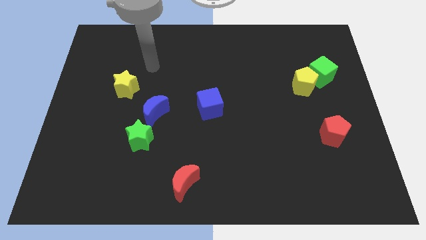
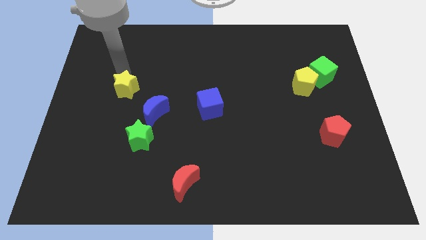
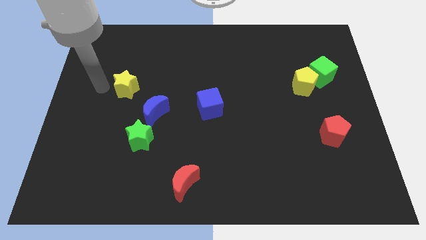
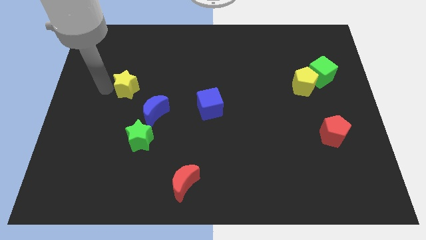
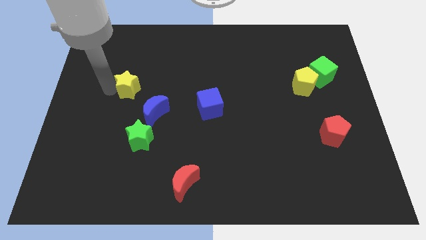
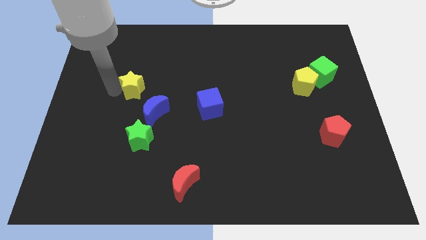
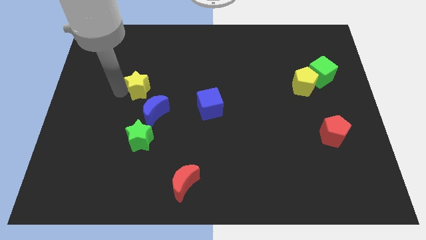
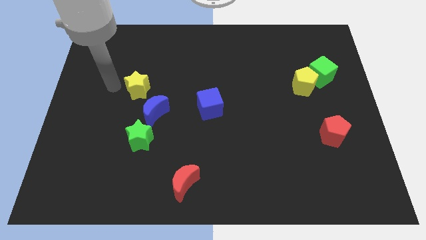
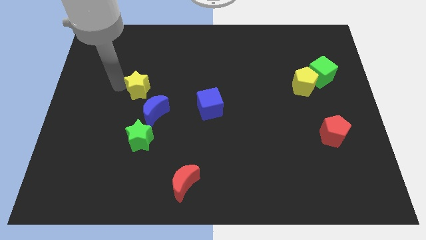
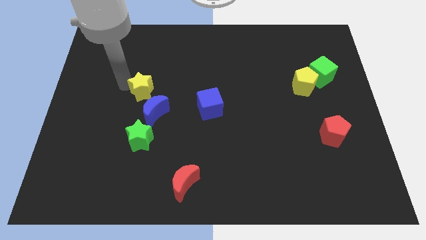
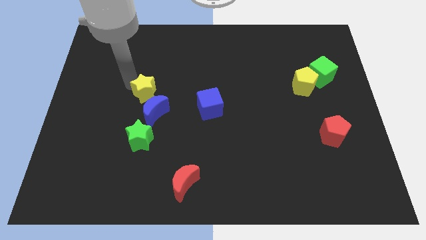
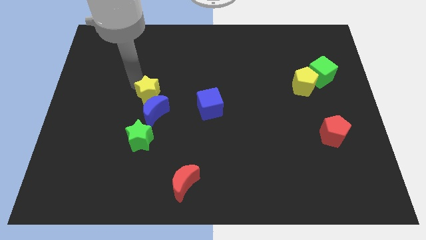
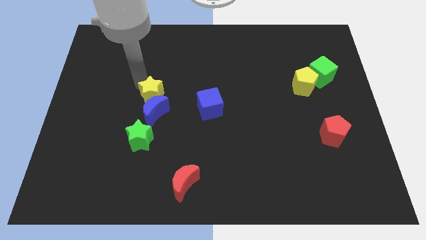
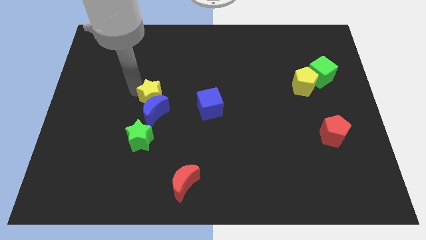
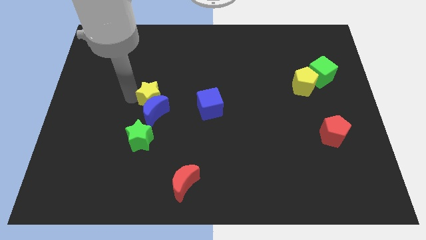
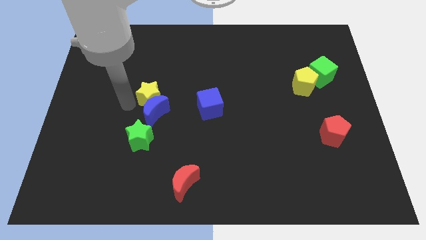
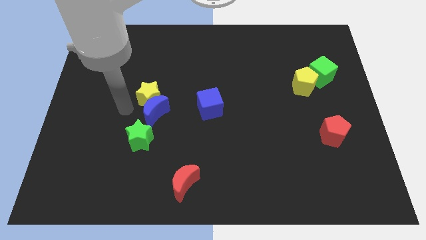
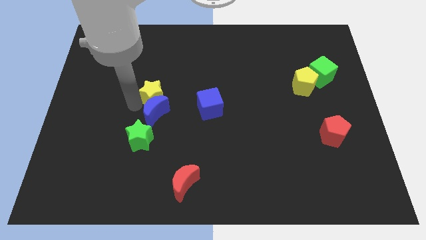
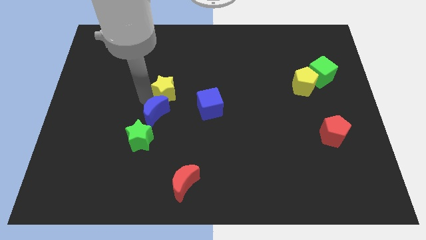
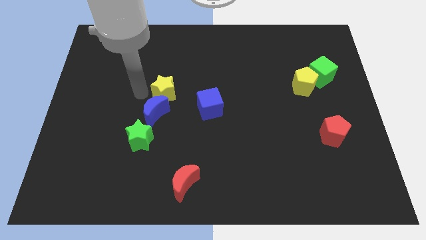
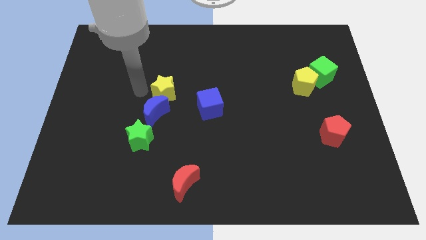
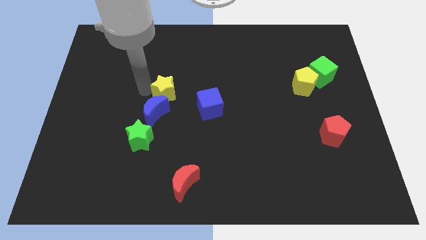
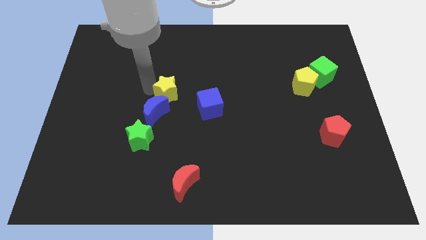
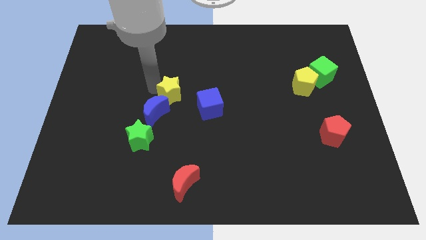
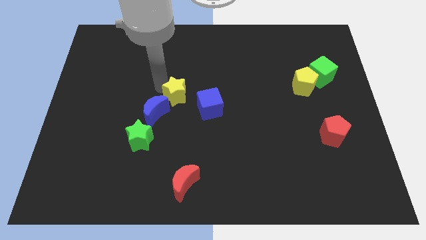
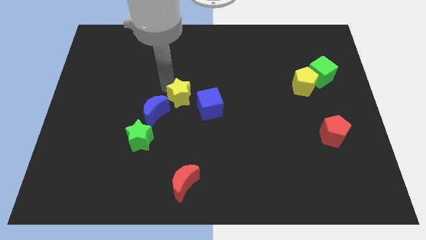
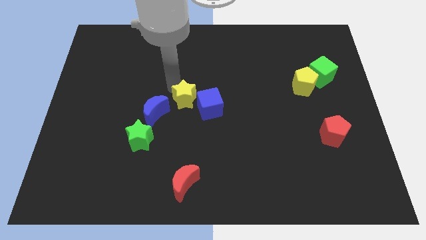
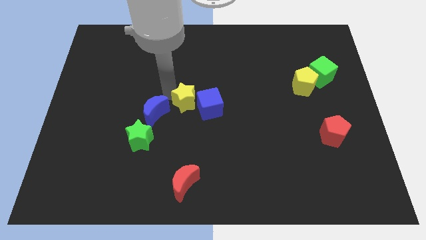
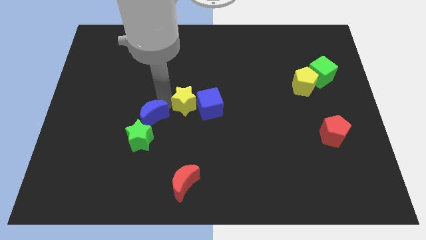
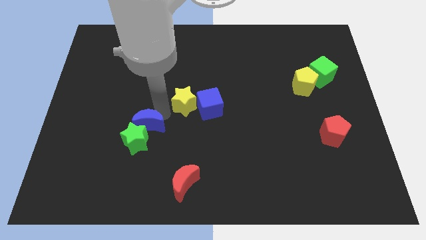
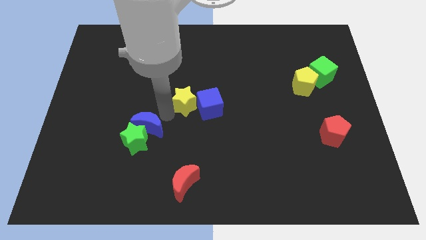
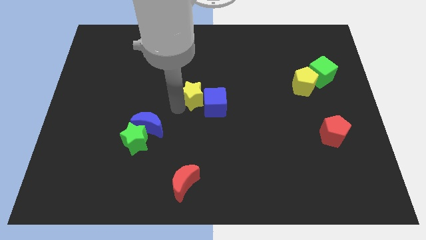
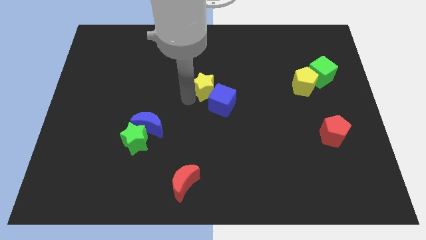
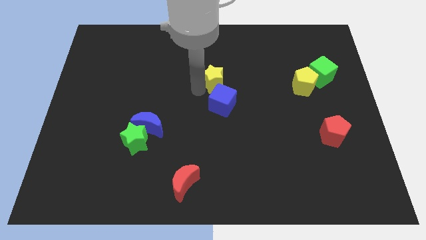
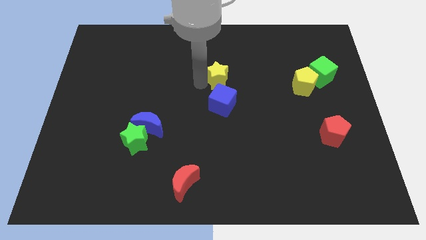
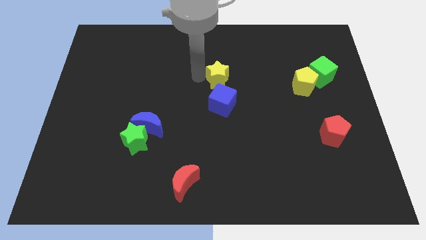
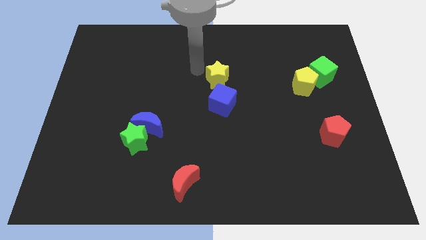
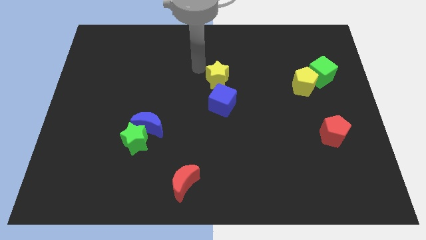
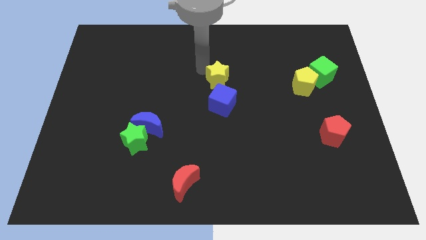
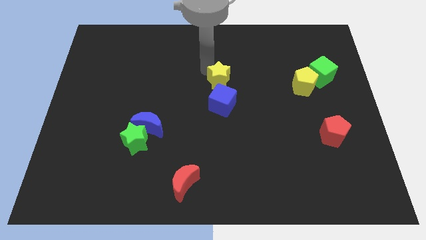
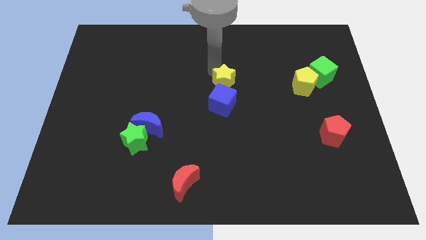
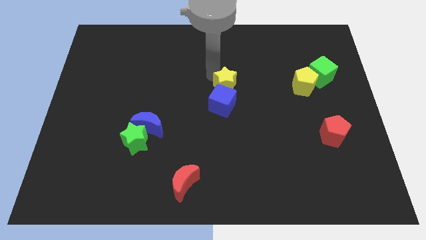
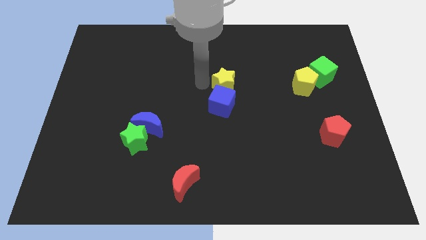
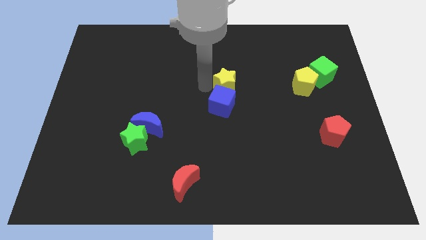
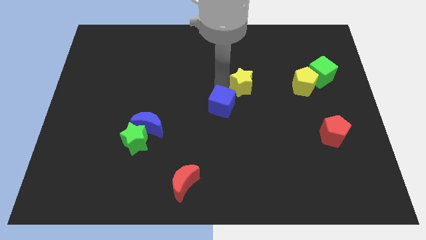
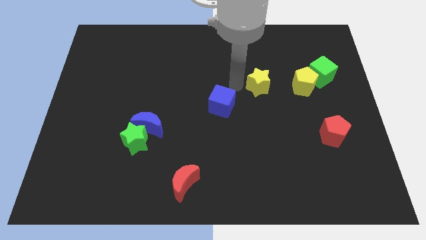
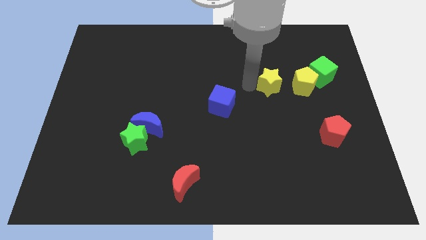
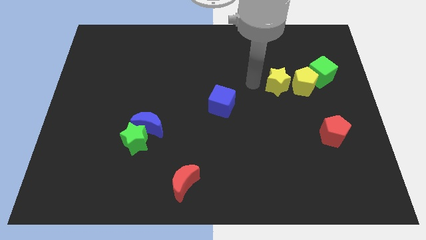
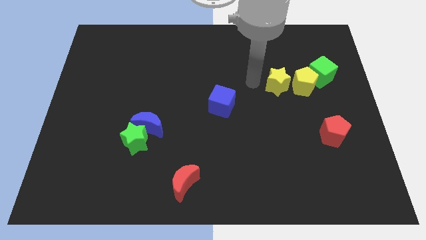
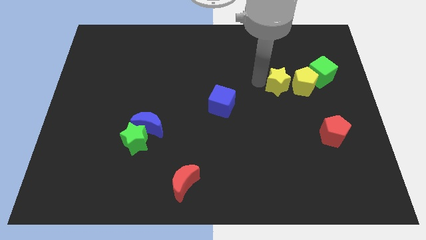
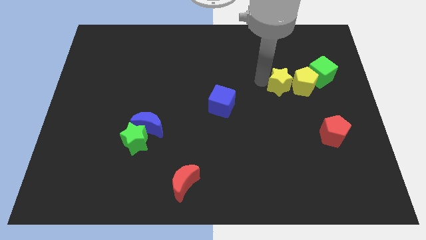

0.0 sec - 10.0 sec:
slide the yellow star next to the yellow pentagon

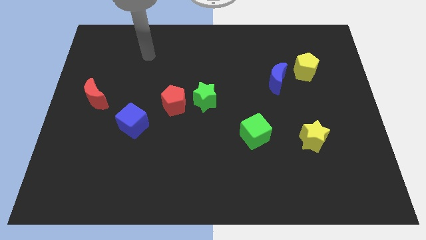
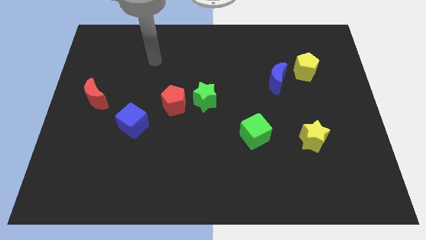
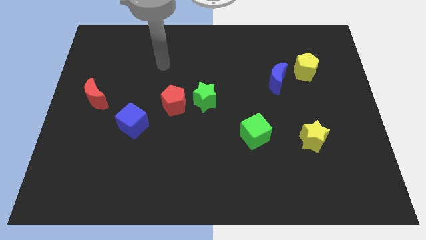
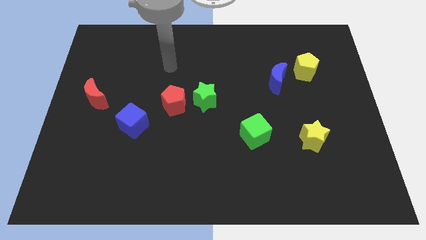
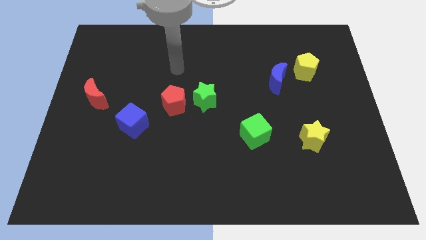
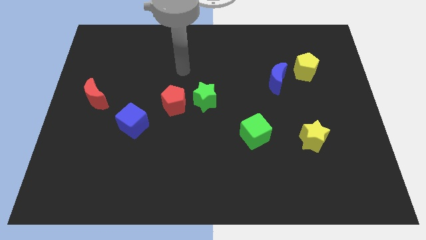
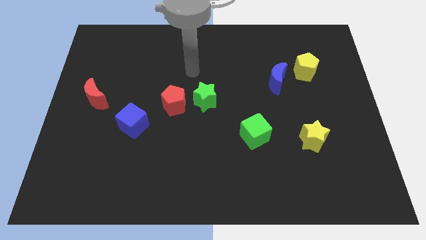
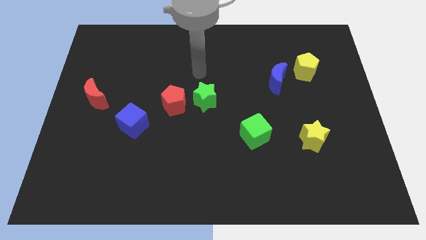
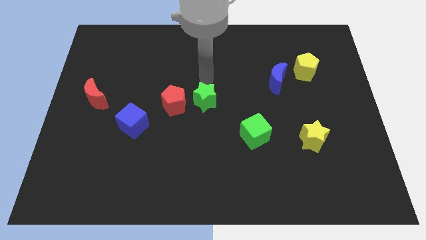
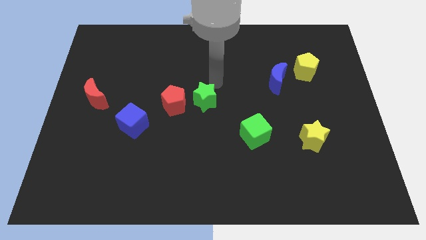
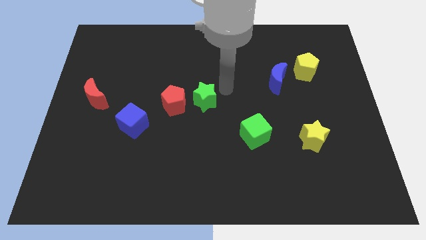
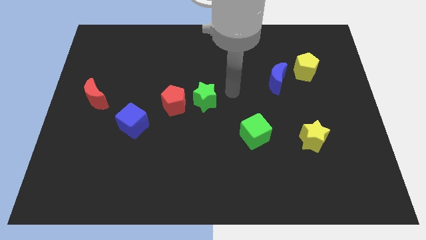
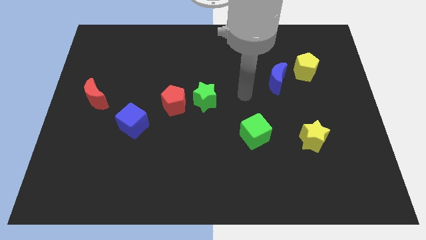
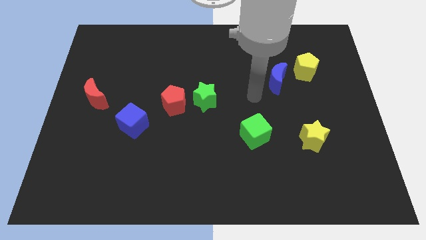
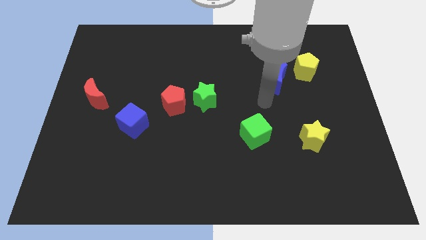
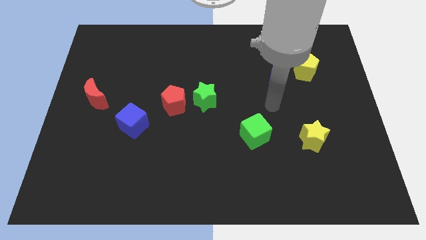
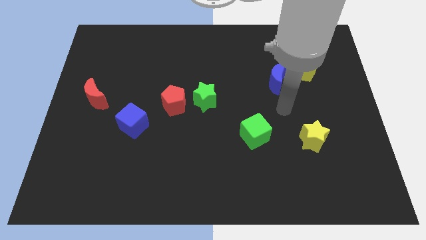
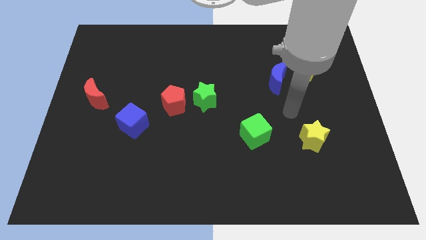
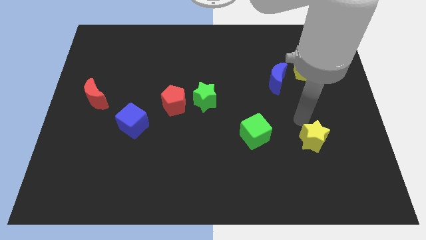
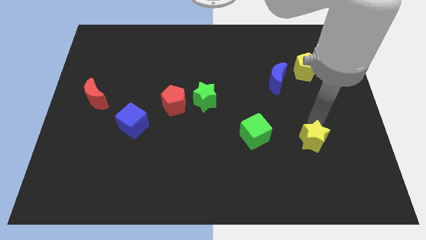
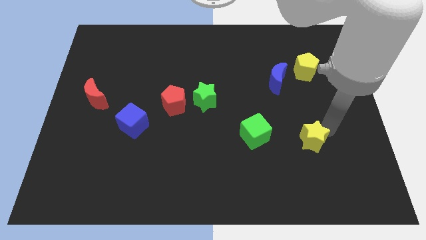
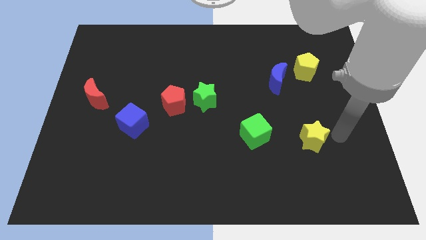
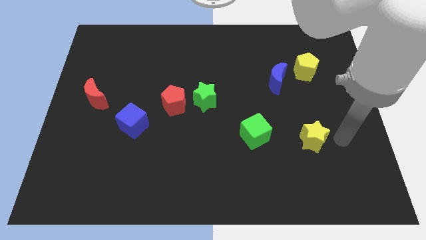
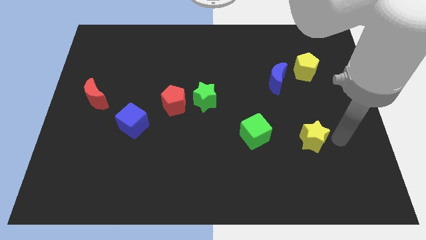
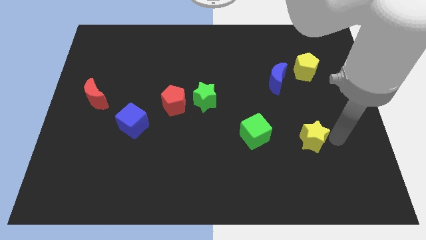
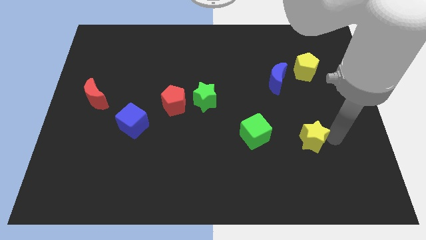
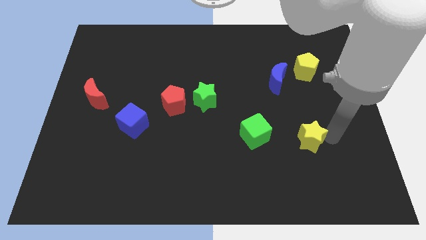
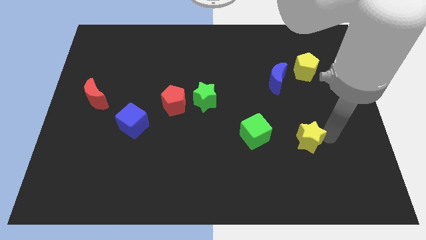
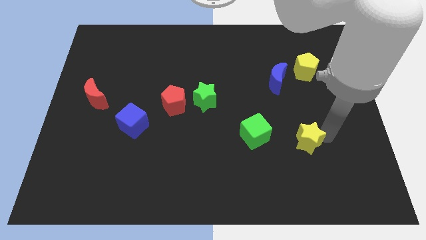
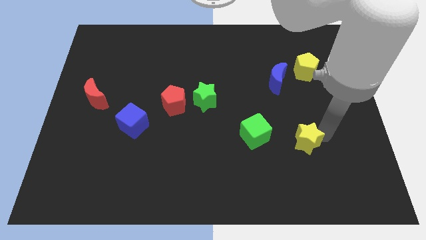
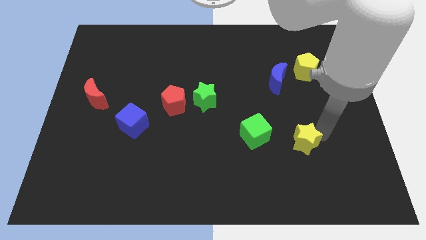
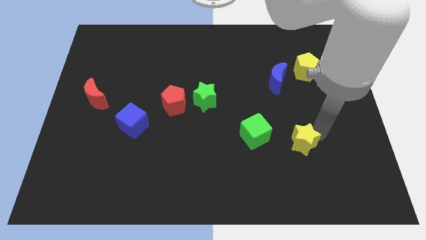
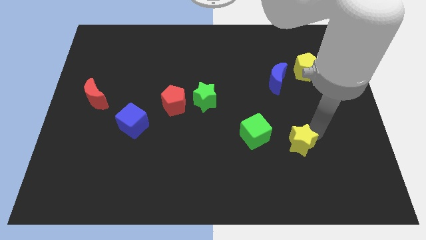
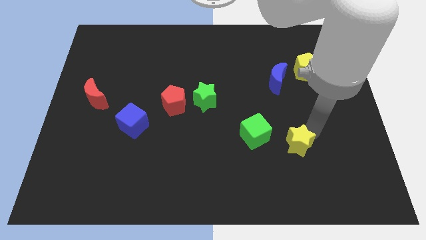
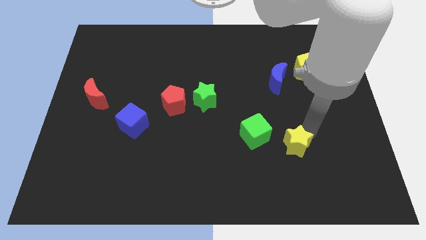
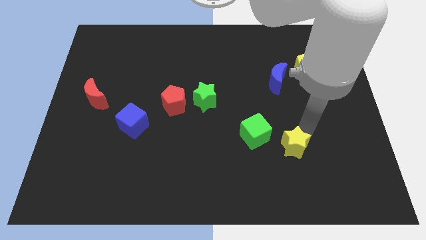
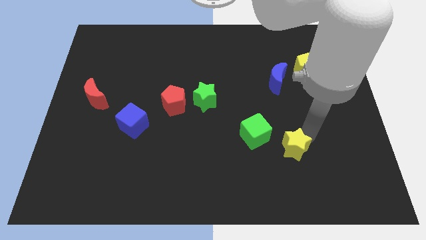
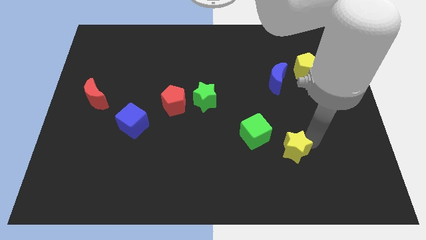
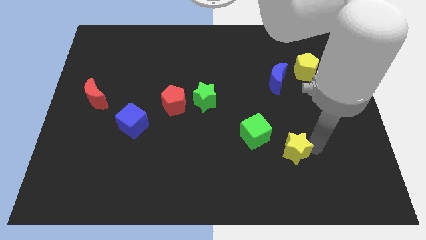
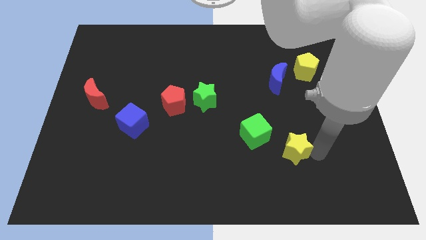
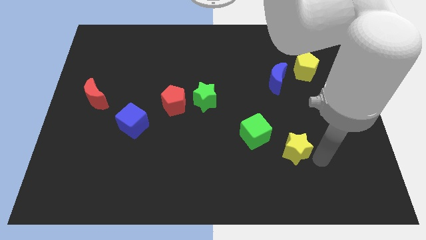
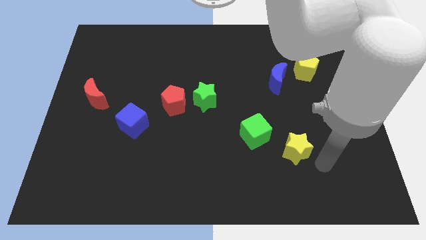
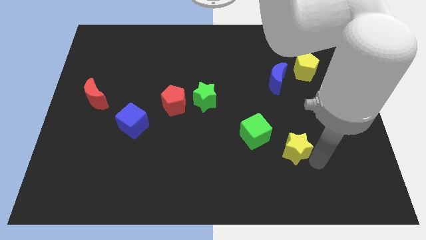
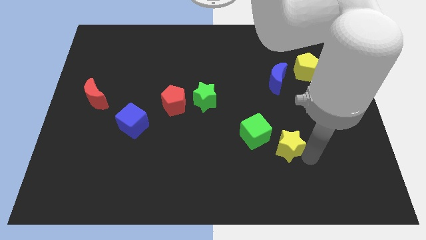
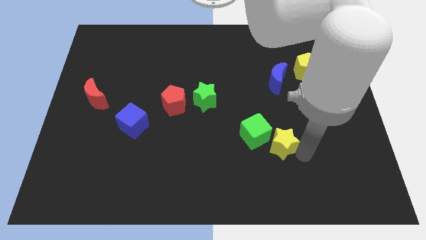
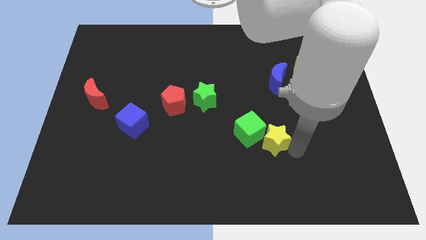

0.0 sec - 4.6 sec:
put the yellow star next to the green cube
